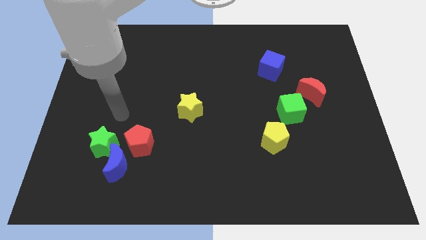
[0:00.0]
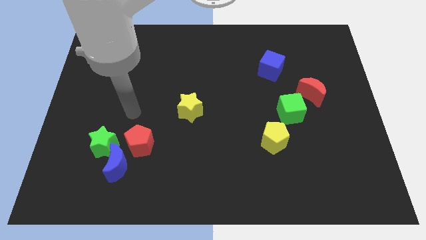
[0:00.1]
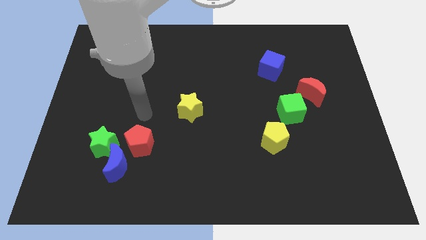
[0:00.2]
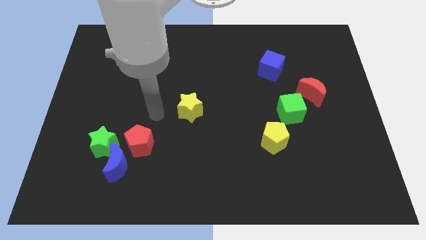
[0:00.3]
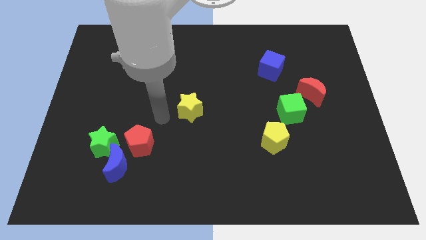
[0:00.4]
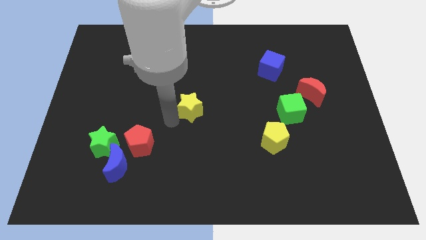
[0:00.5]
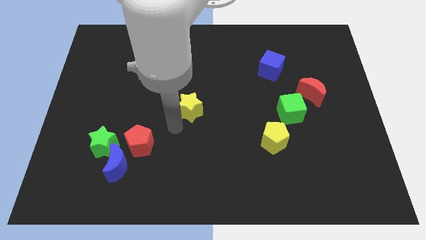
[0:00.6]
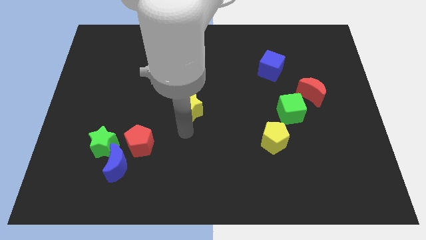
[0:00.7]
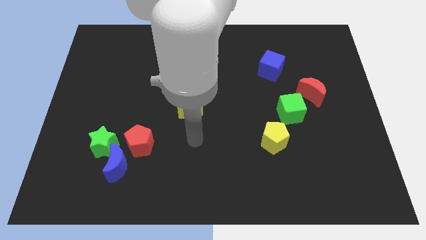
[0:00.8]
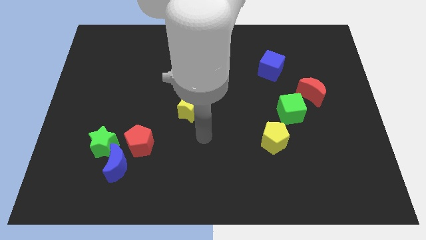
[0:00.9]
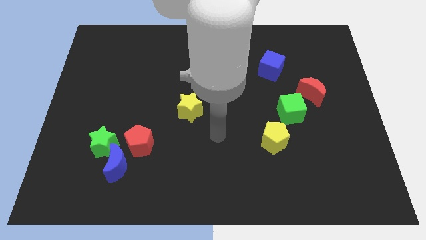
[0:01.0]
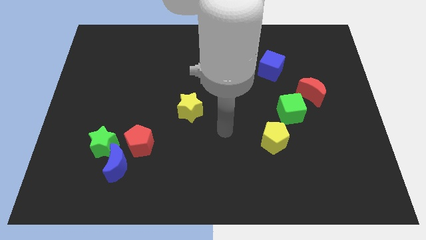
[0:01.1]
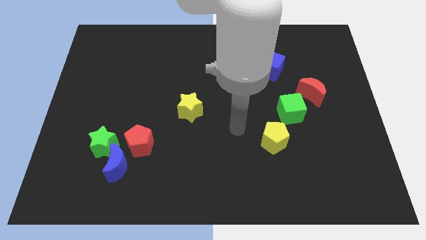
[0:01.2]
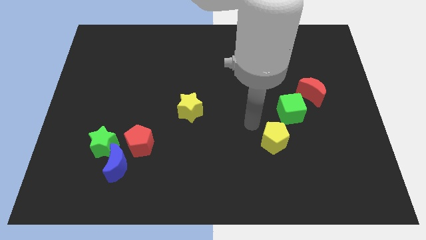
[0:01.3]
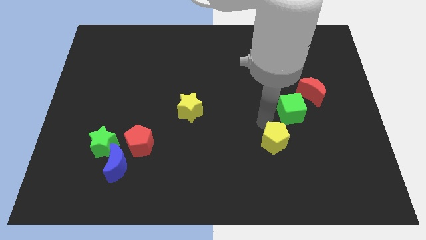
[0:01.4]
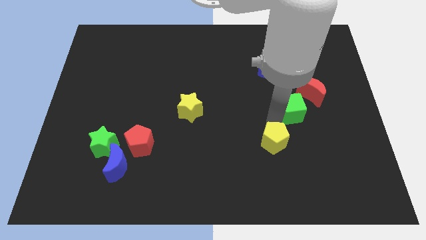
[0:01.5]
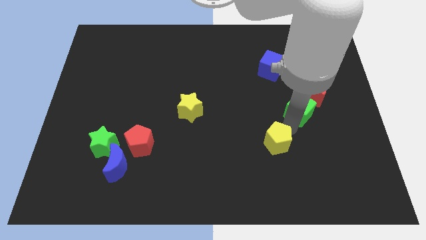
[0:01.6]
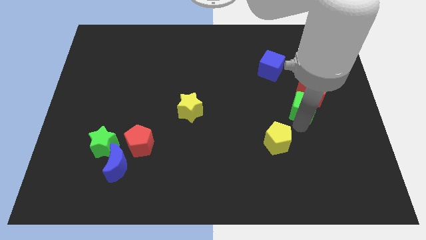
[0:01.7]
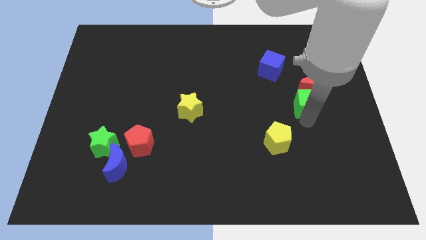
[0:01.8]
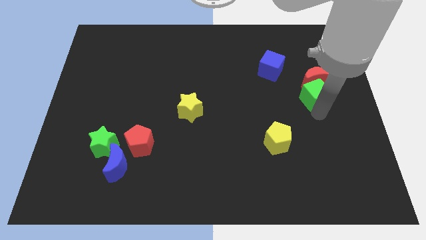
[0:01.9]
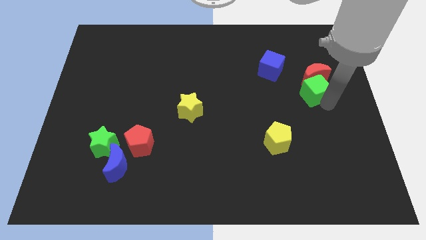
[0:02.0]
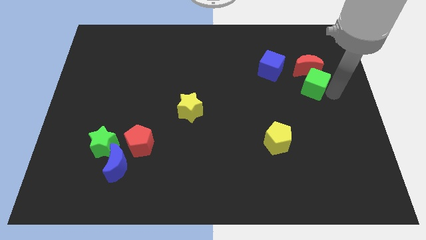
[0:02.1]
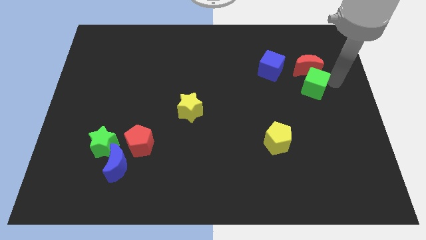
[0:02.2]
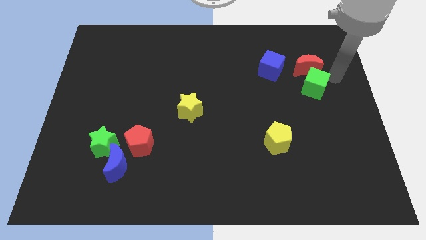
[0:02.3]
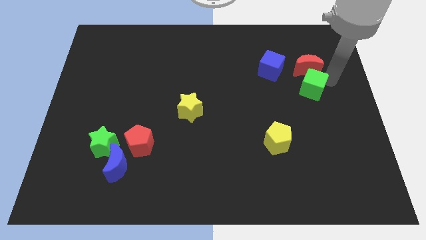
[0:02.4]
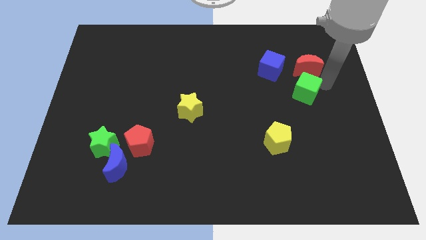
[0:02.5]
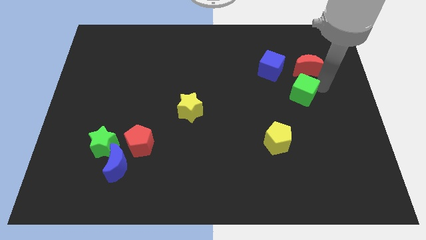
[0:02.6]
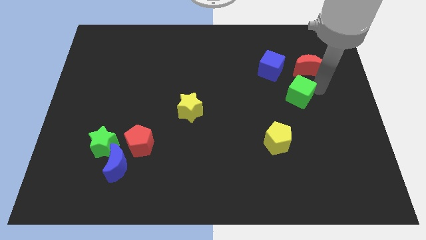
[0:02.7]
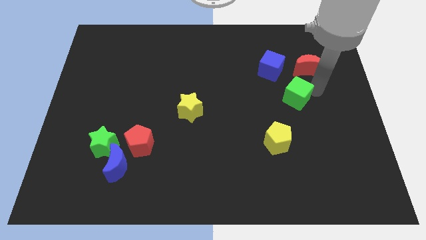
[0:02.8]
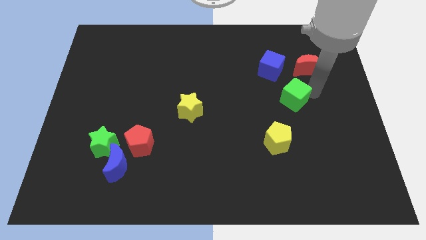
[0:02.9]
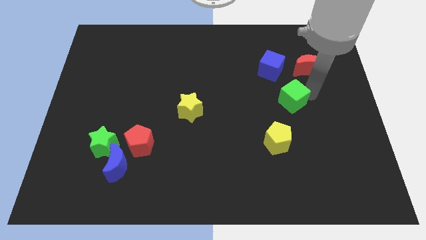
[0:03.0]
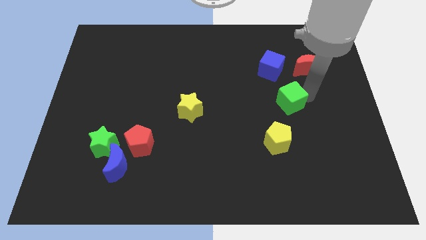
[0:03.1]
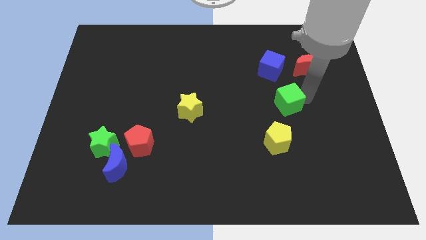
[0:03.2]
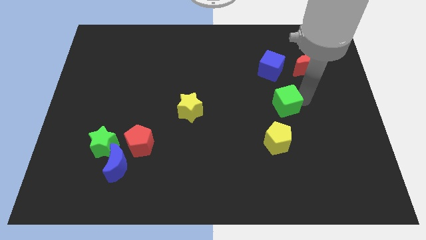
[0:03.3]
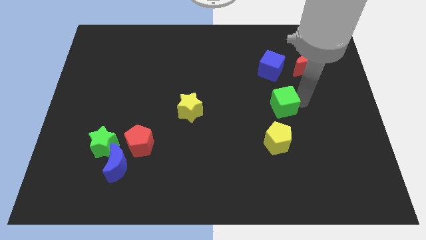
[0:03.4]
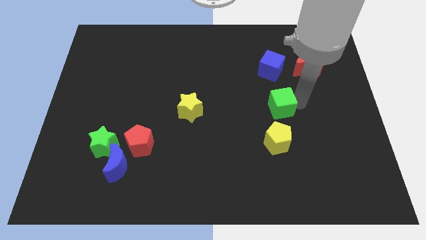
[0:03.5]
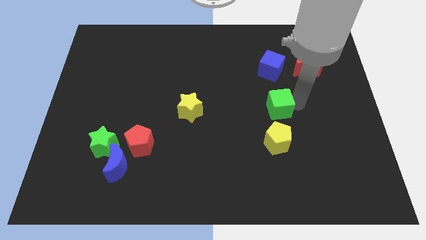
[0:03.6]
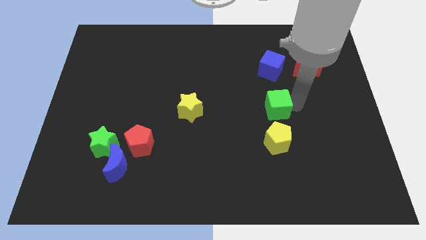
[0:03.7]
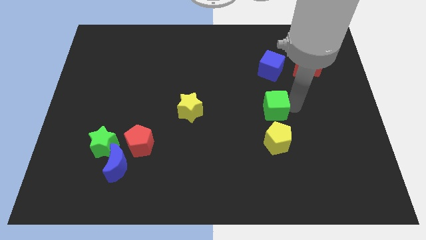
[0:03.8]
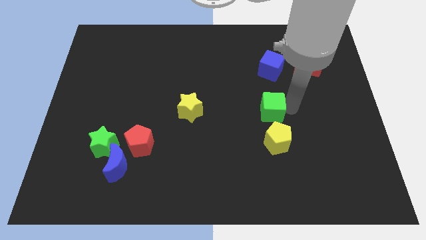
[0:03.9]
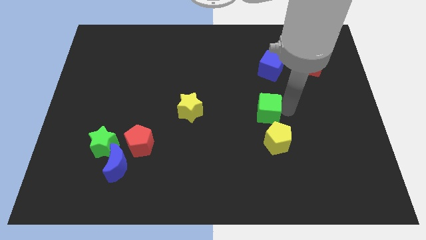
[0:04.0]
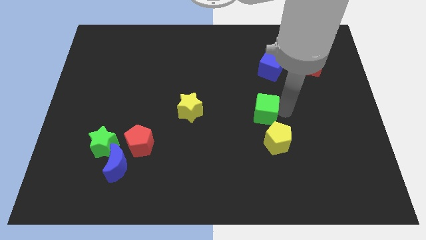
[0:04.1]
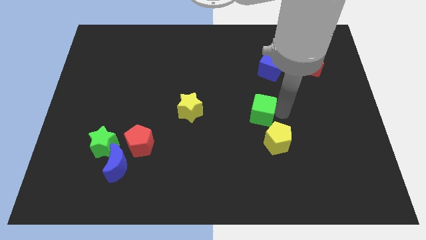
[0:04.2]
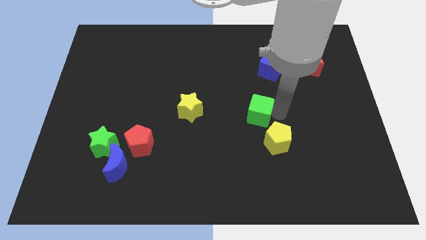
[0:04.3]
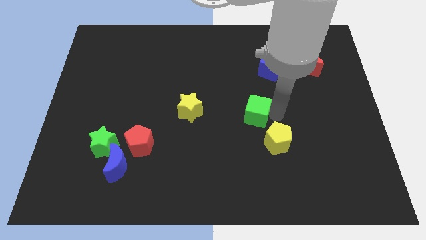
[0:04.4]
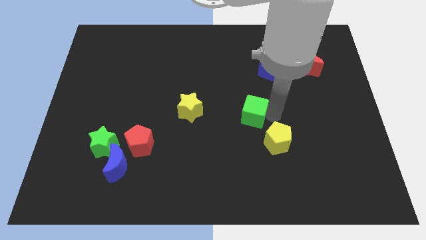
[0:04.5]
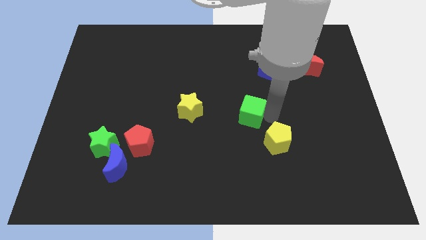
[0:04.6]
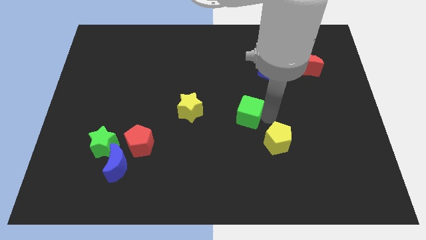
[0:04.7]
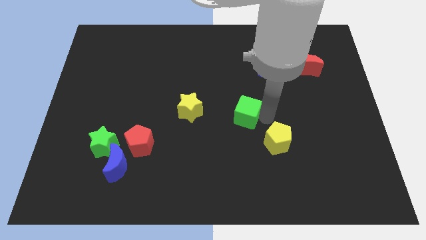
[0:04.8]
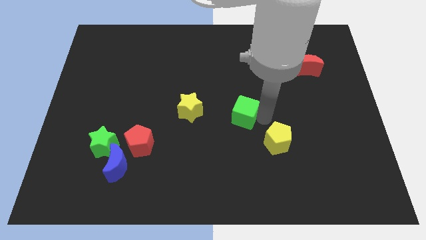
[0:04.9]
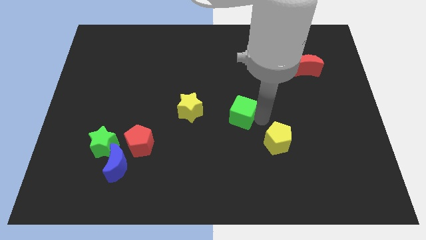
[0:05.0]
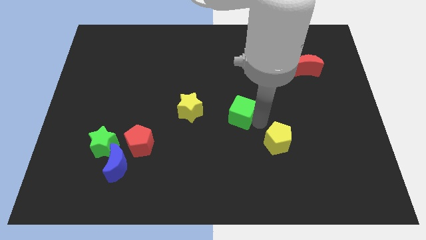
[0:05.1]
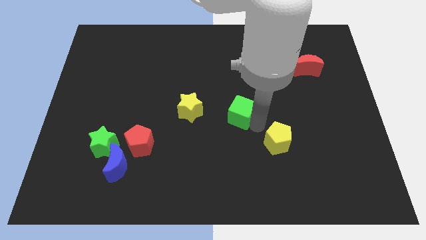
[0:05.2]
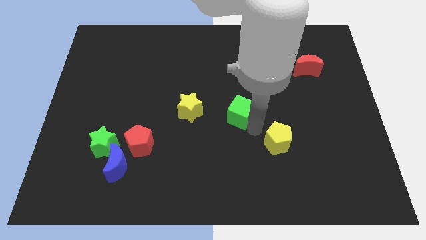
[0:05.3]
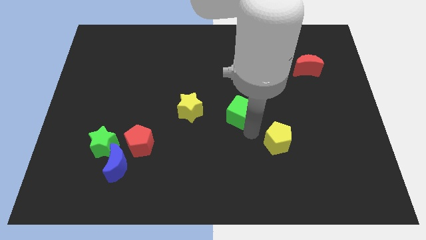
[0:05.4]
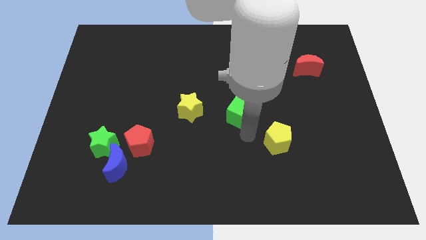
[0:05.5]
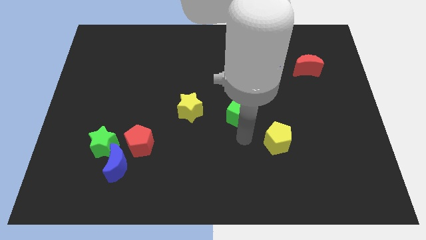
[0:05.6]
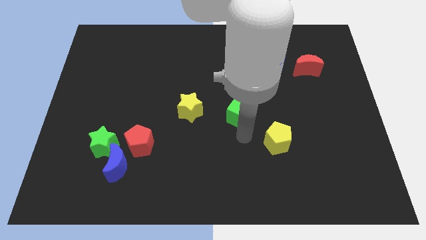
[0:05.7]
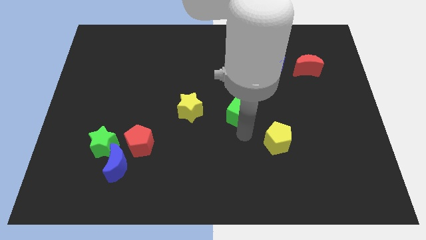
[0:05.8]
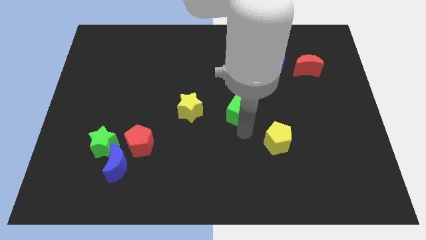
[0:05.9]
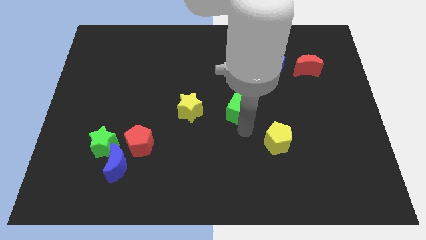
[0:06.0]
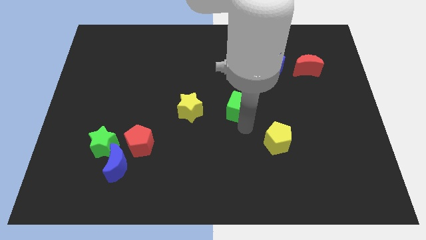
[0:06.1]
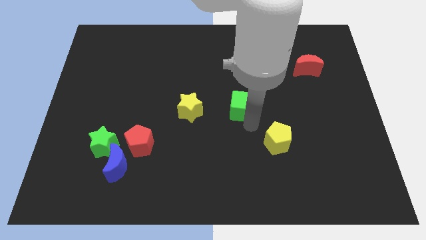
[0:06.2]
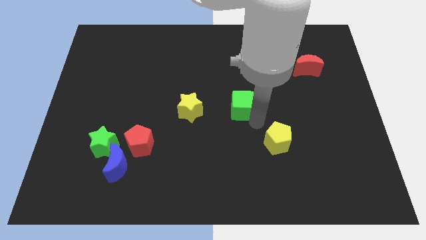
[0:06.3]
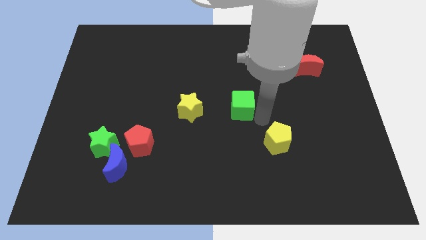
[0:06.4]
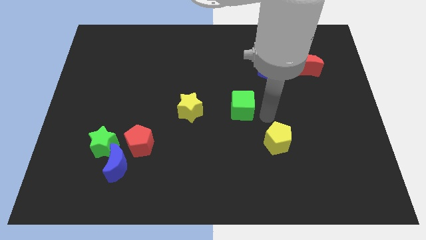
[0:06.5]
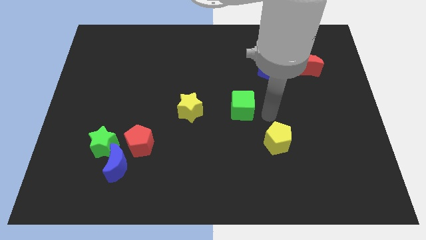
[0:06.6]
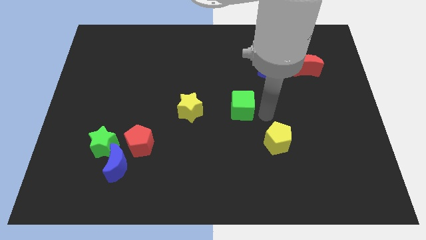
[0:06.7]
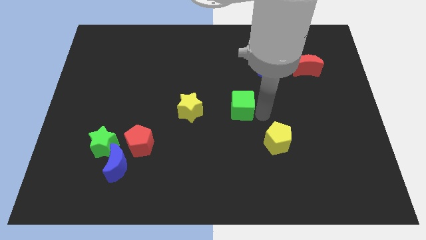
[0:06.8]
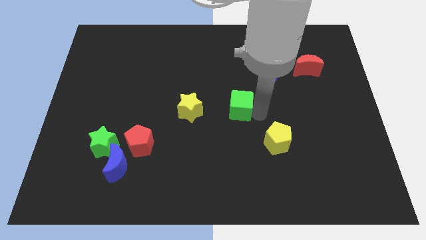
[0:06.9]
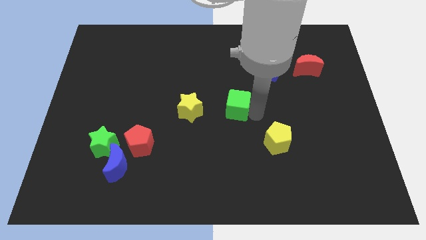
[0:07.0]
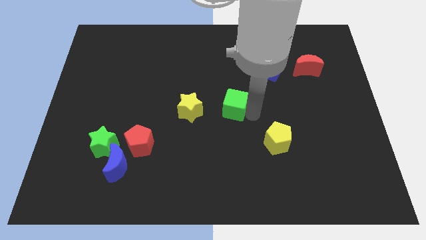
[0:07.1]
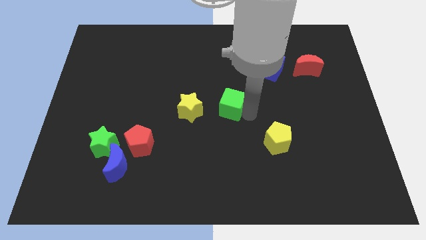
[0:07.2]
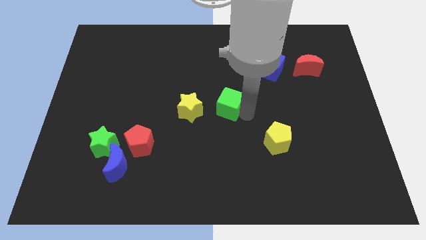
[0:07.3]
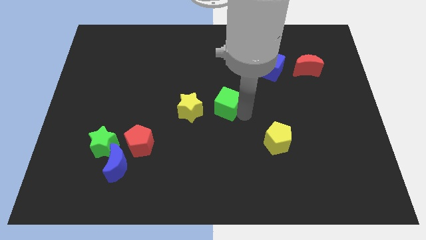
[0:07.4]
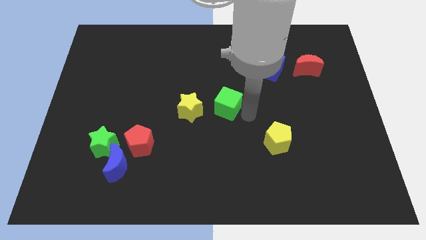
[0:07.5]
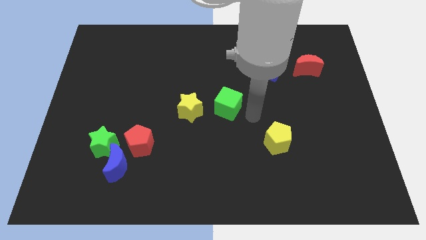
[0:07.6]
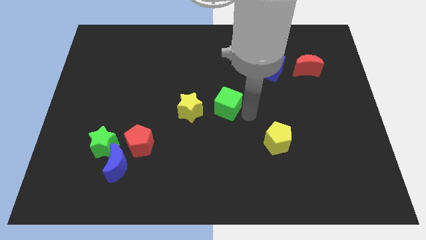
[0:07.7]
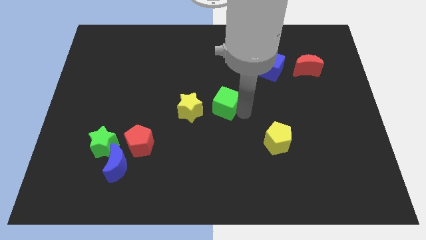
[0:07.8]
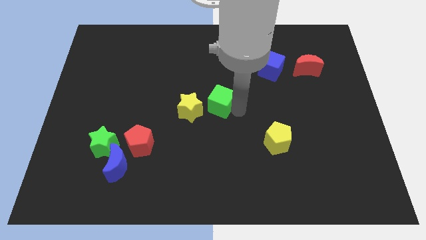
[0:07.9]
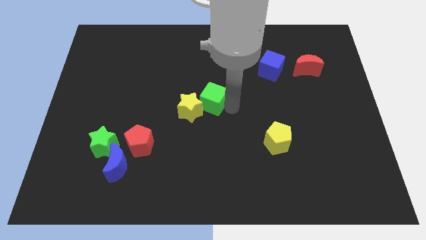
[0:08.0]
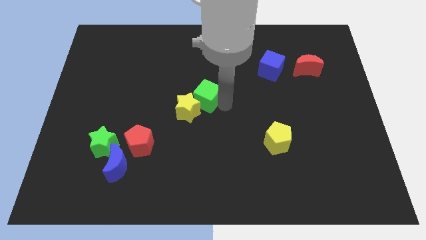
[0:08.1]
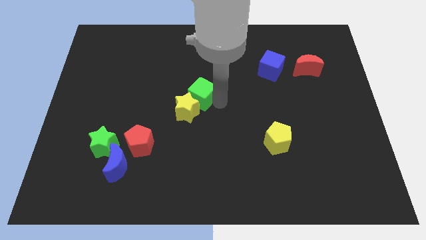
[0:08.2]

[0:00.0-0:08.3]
move the green cube to the left

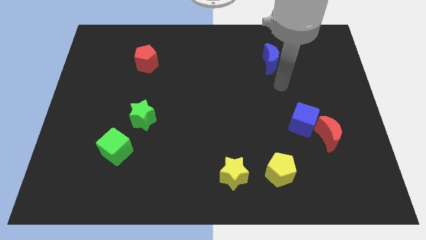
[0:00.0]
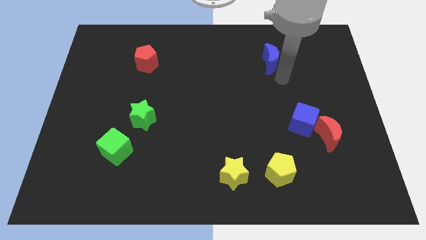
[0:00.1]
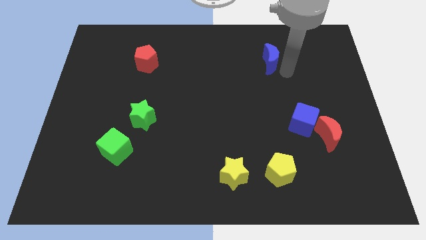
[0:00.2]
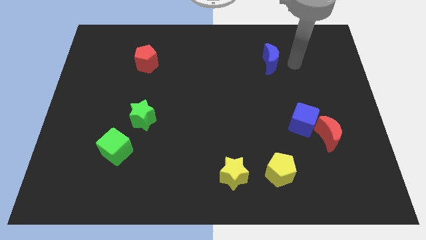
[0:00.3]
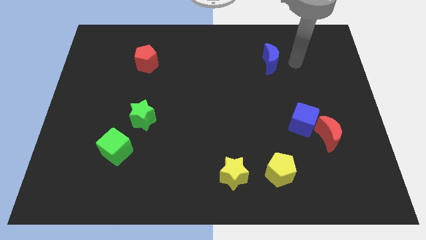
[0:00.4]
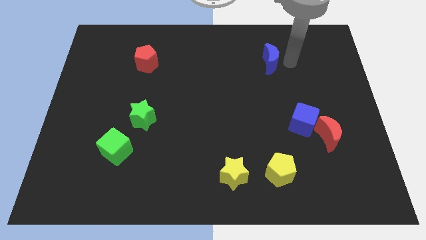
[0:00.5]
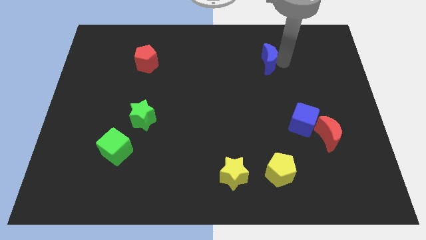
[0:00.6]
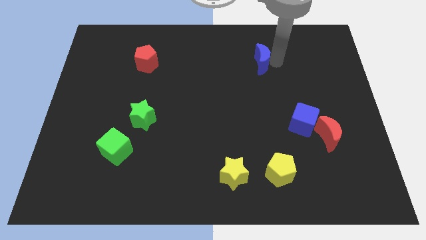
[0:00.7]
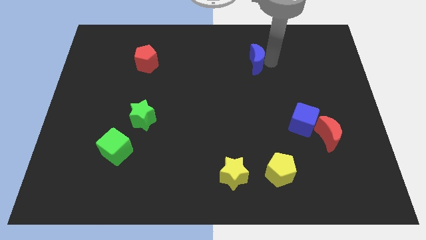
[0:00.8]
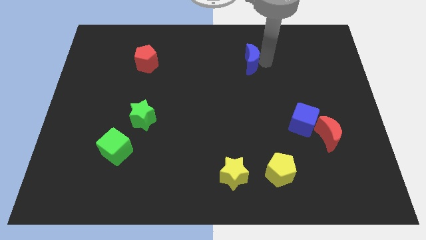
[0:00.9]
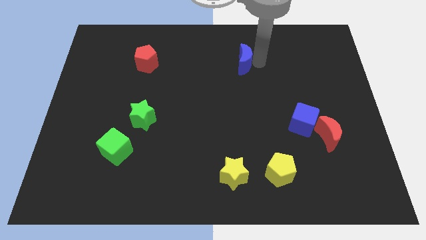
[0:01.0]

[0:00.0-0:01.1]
slide the blue moon slightly left
